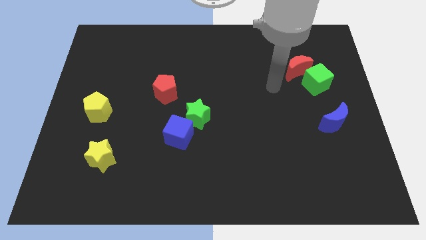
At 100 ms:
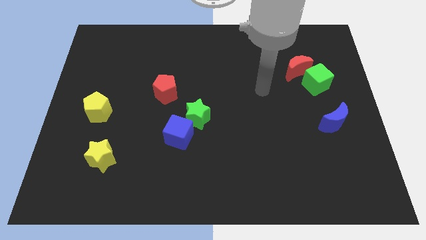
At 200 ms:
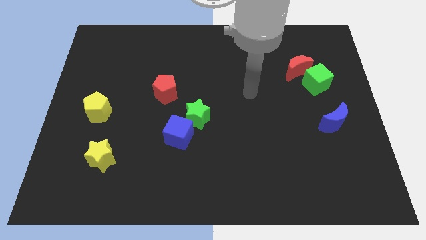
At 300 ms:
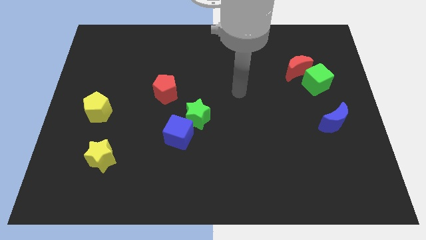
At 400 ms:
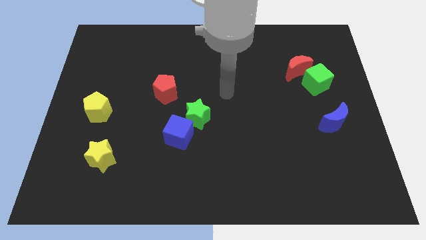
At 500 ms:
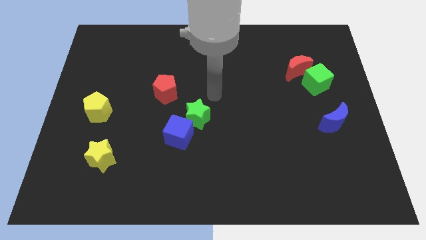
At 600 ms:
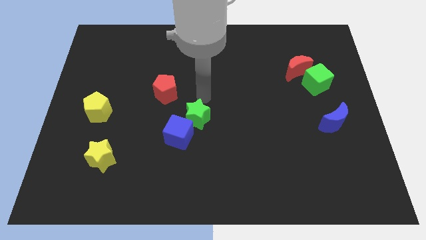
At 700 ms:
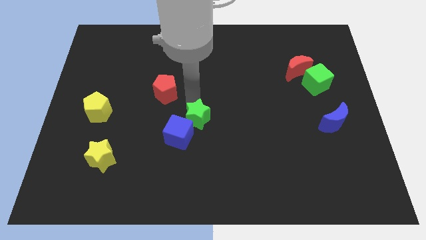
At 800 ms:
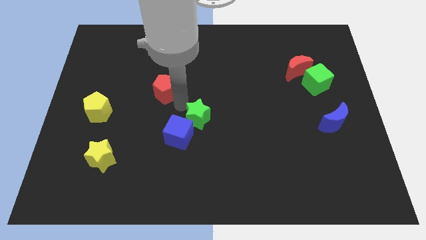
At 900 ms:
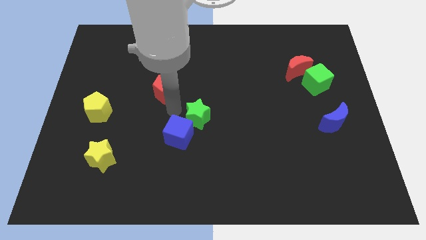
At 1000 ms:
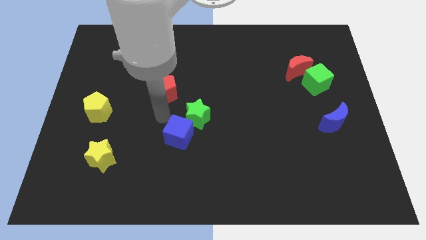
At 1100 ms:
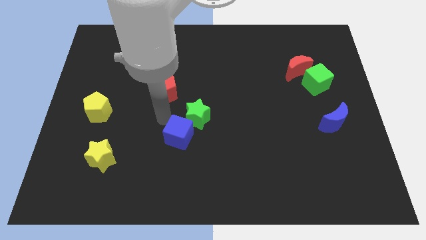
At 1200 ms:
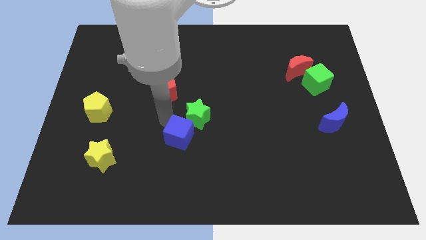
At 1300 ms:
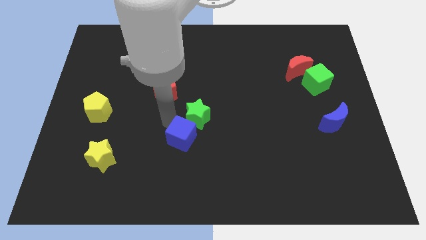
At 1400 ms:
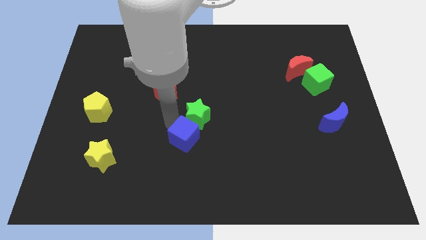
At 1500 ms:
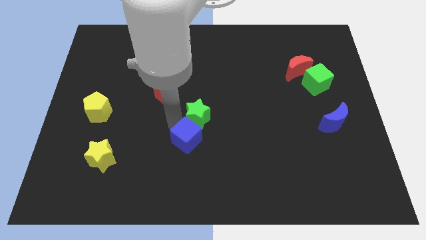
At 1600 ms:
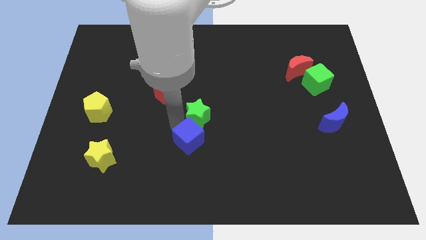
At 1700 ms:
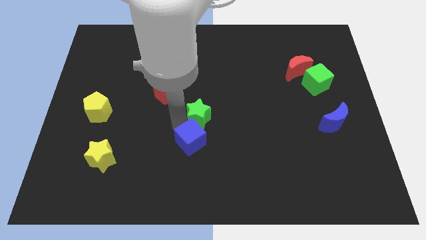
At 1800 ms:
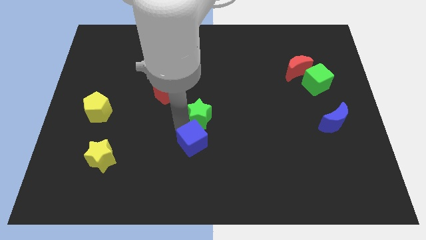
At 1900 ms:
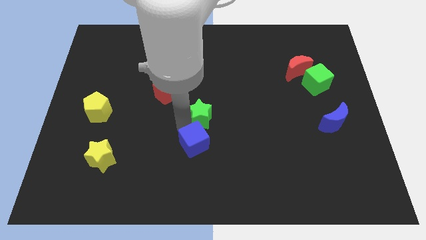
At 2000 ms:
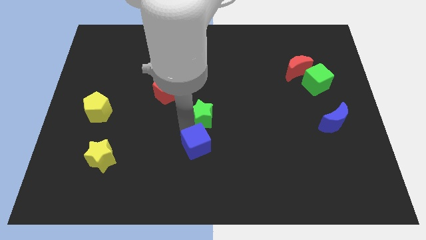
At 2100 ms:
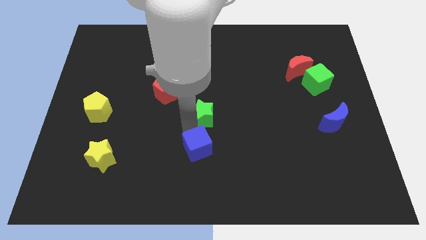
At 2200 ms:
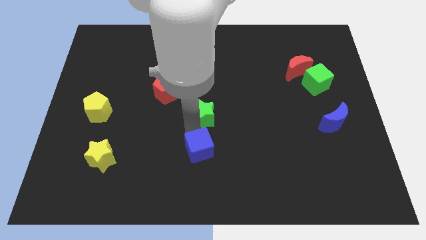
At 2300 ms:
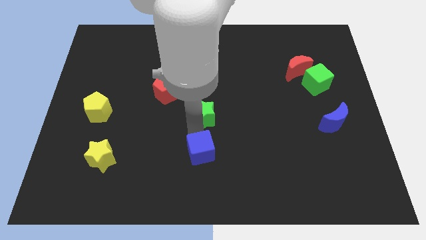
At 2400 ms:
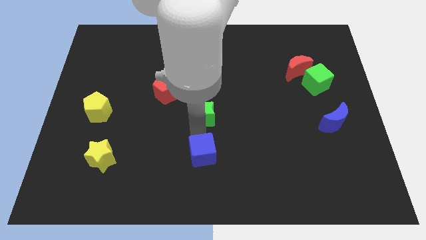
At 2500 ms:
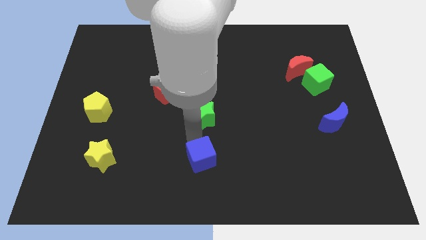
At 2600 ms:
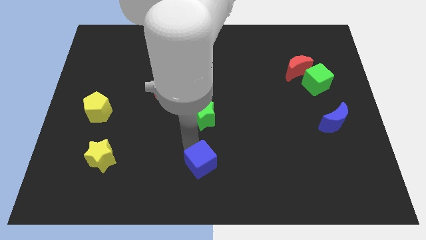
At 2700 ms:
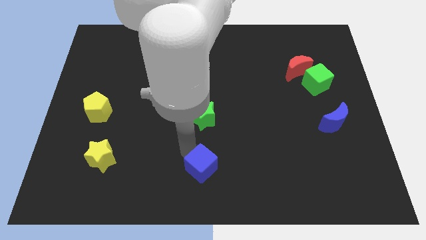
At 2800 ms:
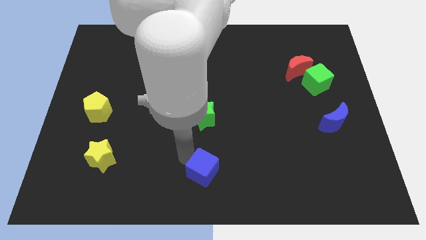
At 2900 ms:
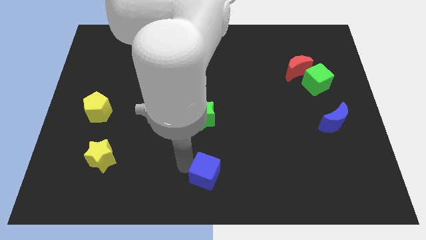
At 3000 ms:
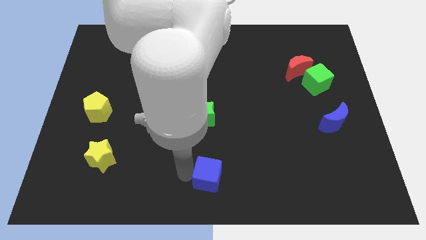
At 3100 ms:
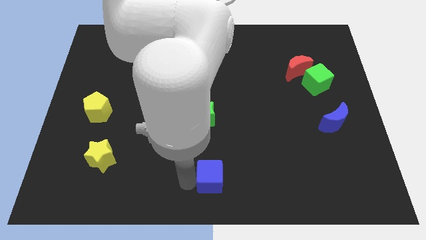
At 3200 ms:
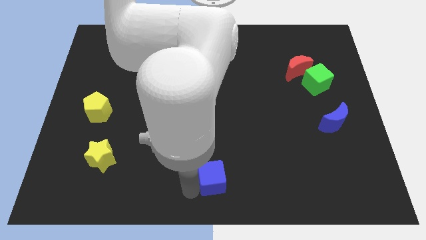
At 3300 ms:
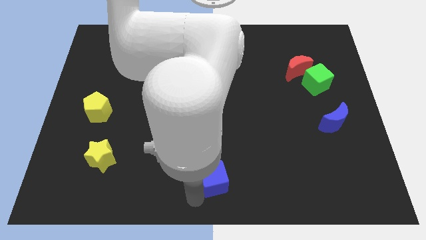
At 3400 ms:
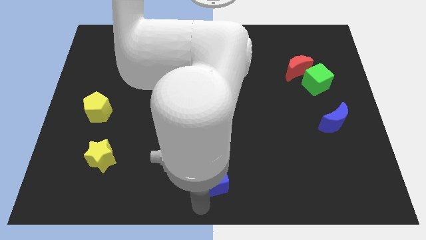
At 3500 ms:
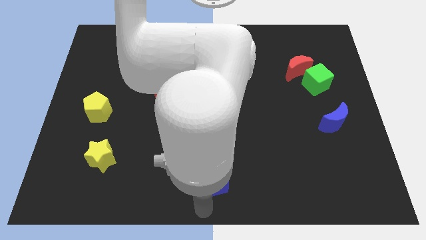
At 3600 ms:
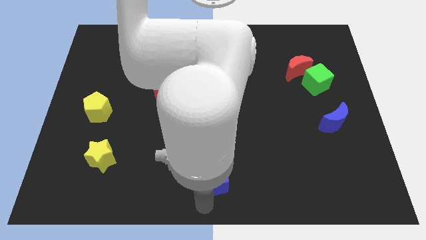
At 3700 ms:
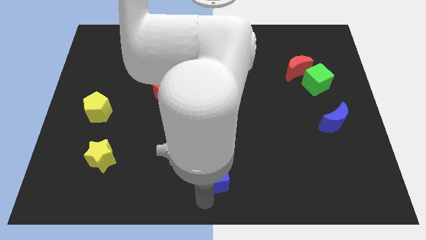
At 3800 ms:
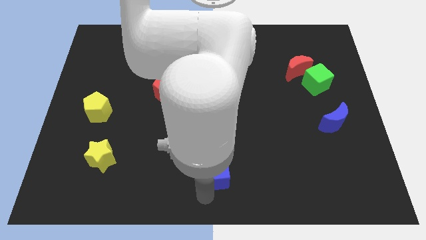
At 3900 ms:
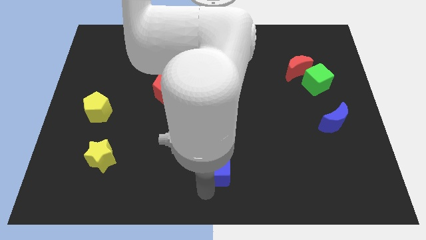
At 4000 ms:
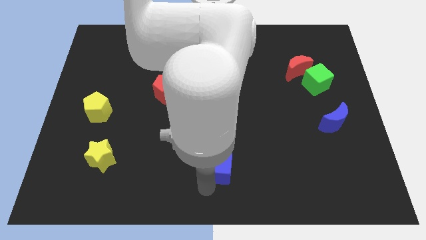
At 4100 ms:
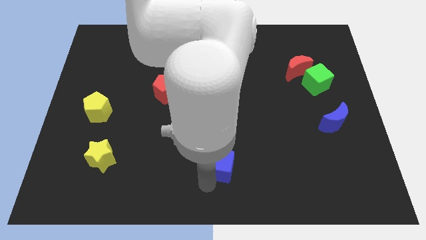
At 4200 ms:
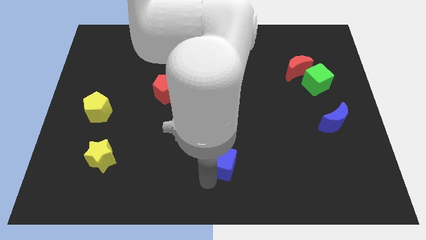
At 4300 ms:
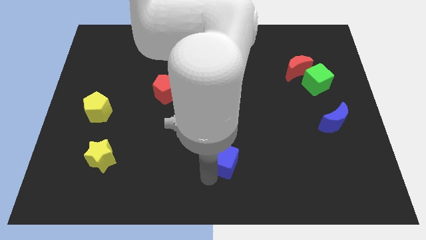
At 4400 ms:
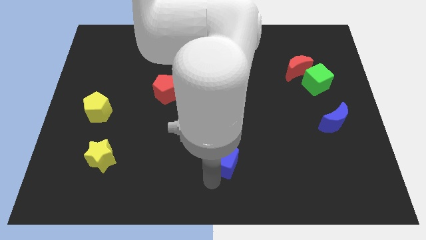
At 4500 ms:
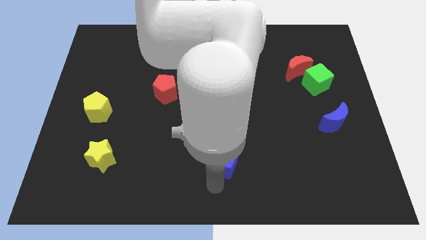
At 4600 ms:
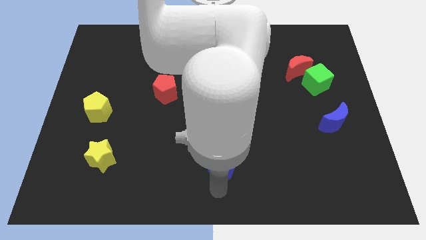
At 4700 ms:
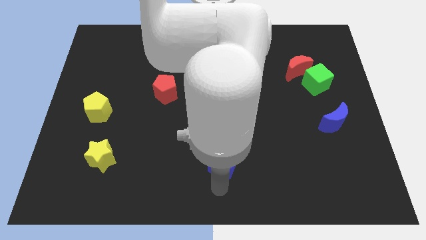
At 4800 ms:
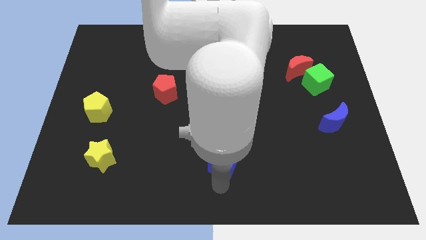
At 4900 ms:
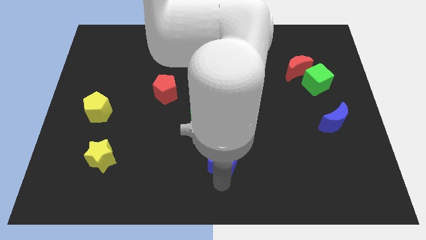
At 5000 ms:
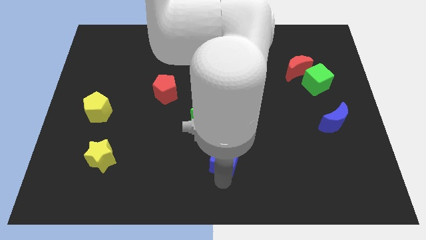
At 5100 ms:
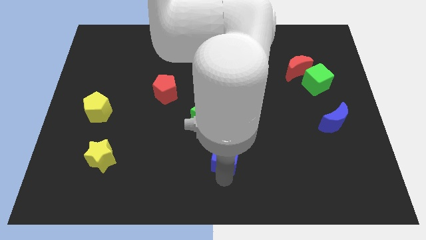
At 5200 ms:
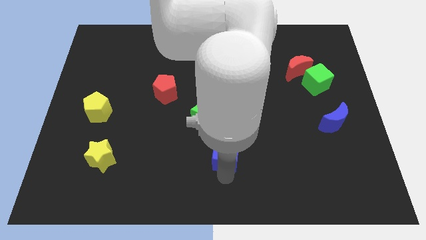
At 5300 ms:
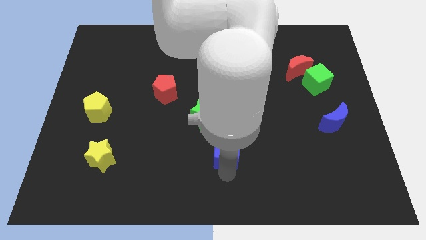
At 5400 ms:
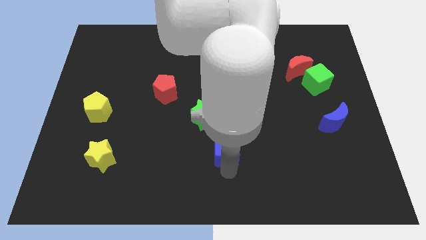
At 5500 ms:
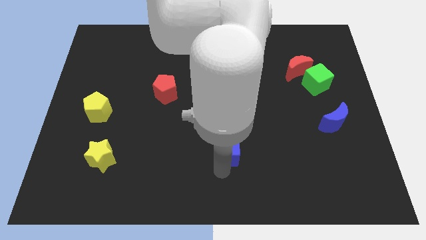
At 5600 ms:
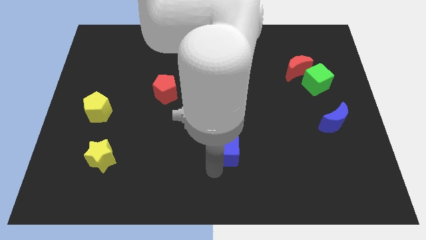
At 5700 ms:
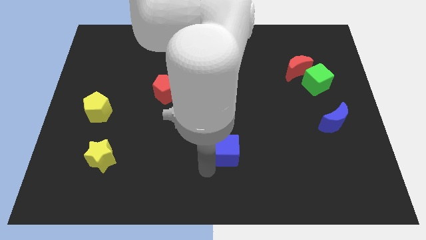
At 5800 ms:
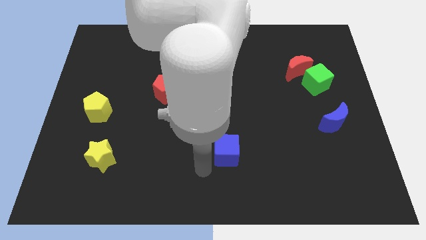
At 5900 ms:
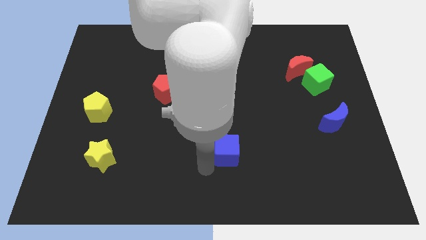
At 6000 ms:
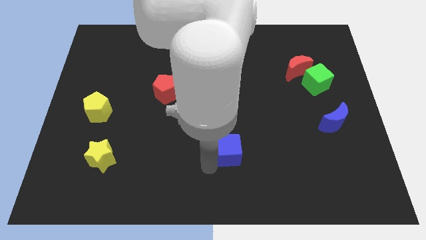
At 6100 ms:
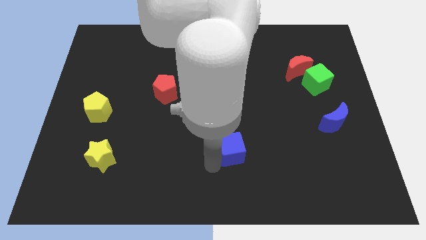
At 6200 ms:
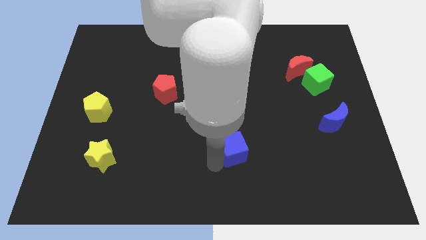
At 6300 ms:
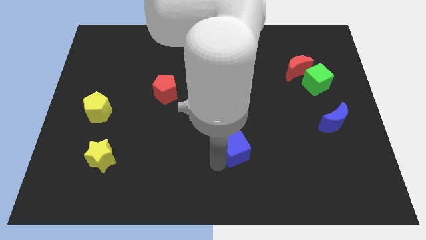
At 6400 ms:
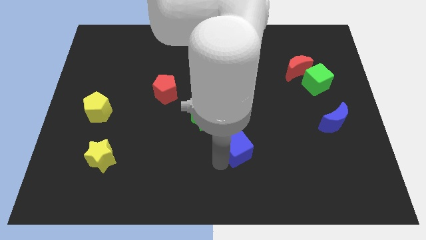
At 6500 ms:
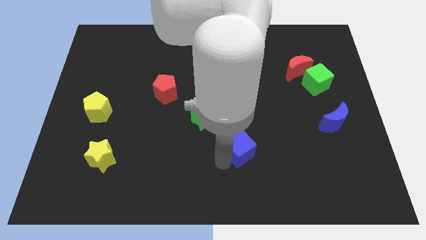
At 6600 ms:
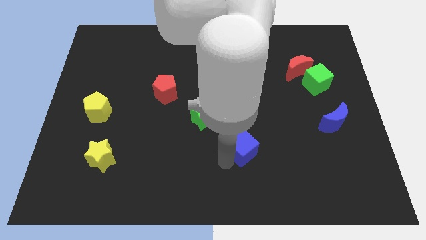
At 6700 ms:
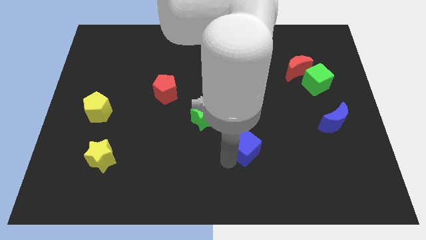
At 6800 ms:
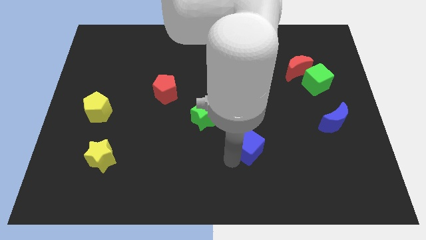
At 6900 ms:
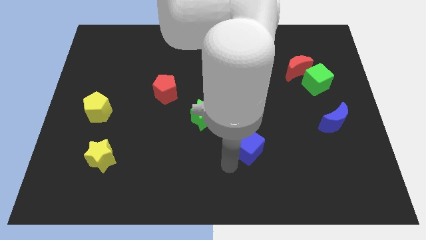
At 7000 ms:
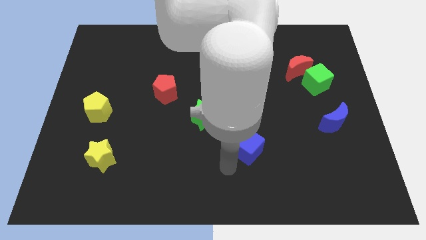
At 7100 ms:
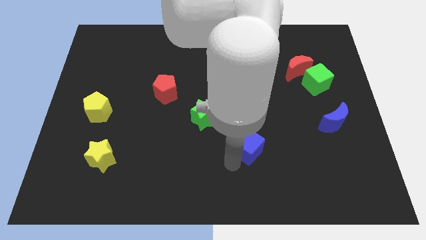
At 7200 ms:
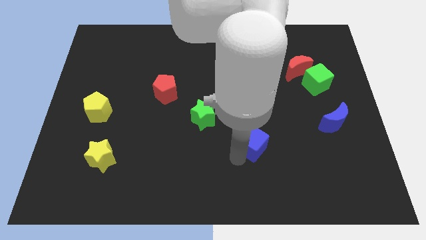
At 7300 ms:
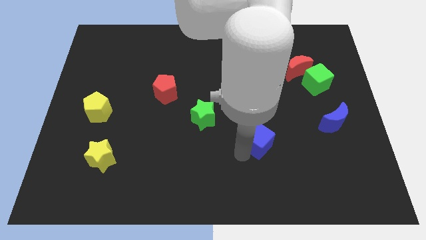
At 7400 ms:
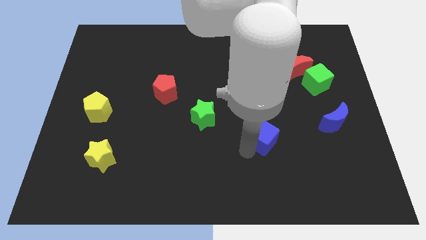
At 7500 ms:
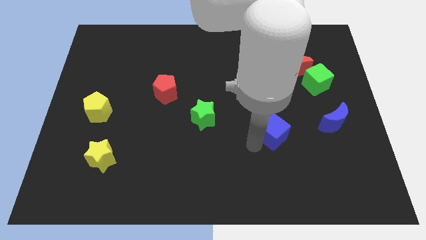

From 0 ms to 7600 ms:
move the blue cube to the left of the blue moon
